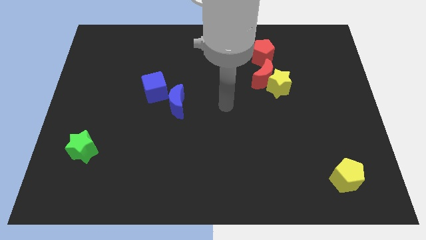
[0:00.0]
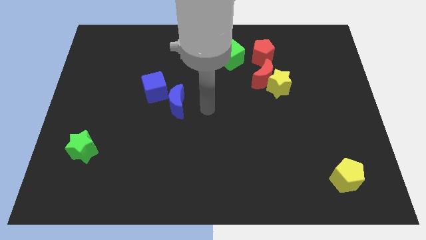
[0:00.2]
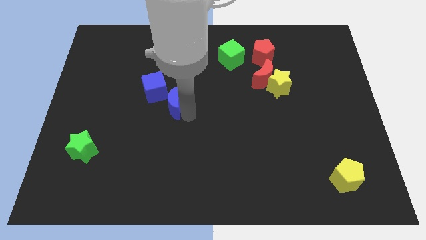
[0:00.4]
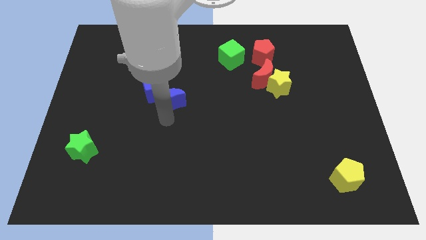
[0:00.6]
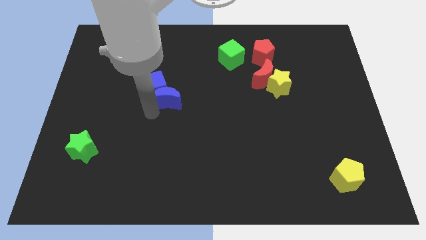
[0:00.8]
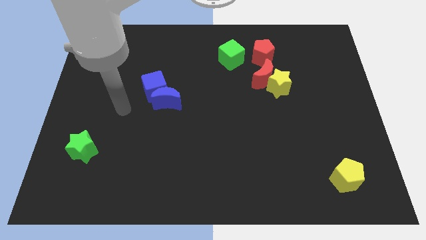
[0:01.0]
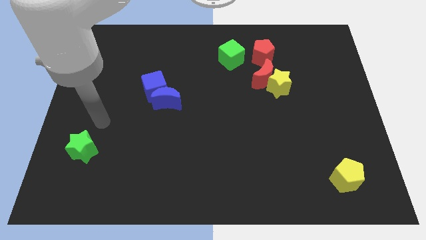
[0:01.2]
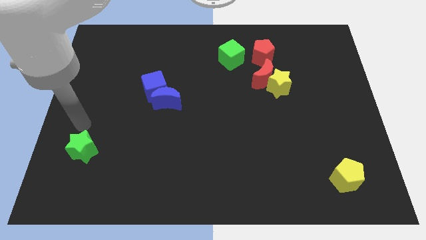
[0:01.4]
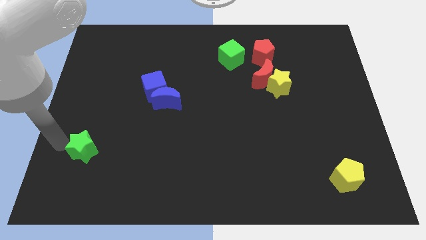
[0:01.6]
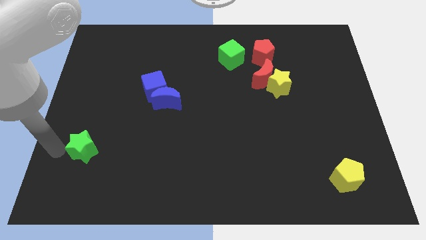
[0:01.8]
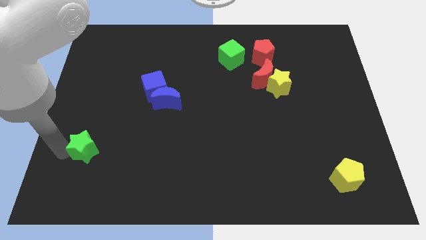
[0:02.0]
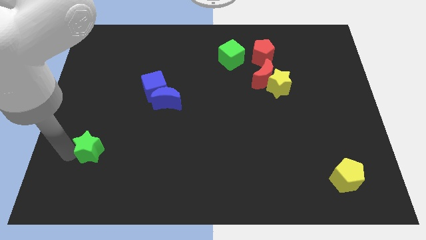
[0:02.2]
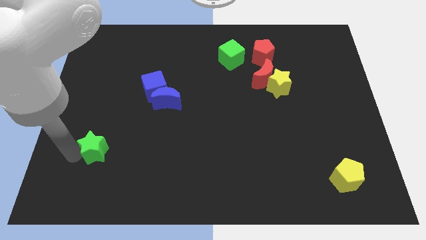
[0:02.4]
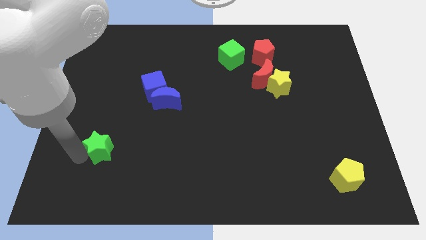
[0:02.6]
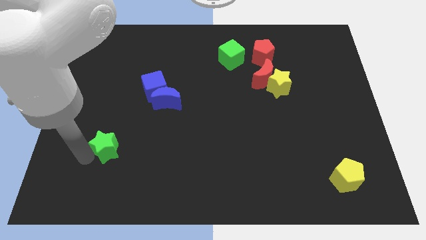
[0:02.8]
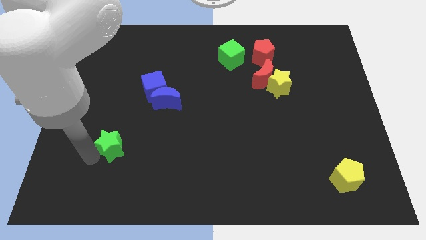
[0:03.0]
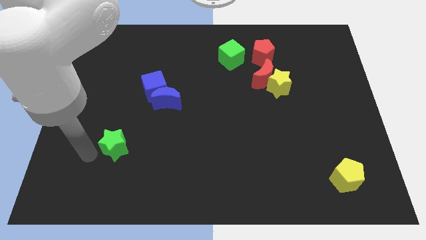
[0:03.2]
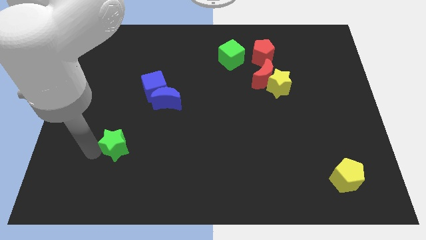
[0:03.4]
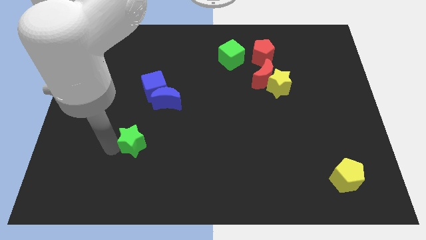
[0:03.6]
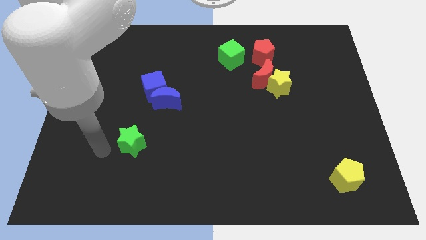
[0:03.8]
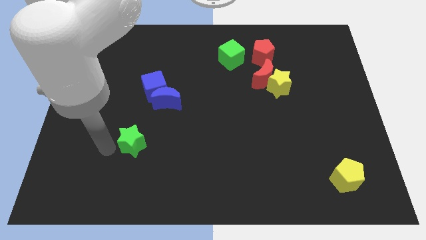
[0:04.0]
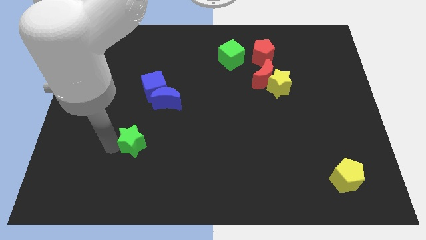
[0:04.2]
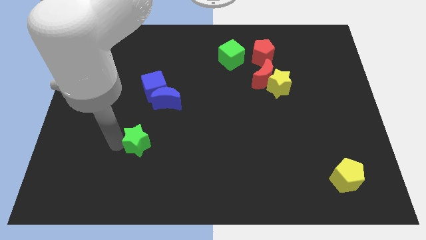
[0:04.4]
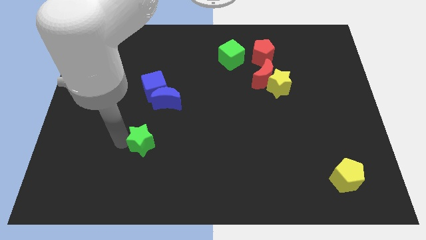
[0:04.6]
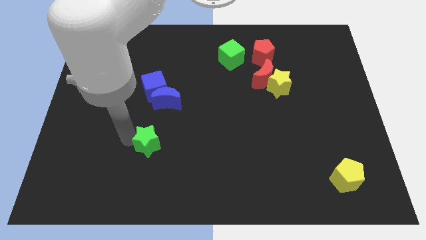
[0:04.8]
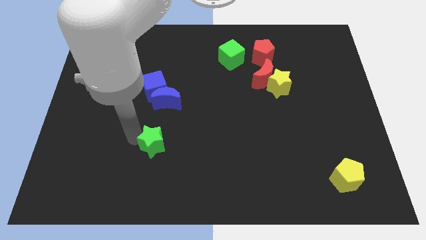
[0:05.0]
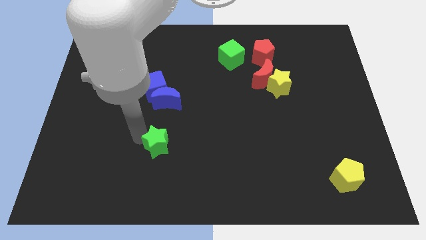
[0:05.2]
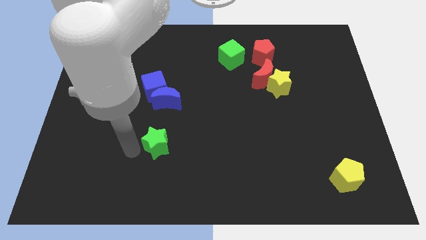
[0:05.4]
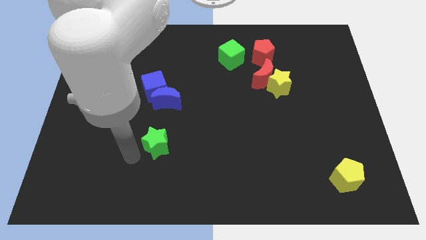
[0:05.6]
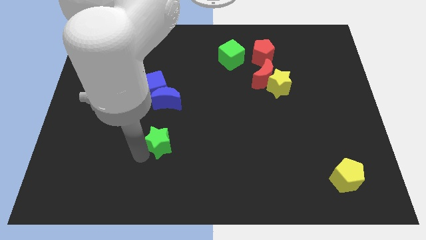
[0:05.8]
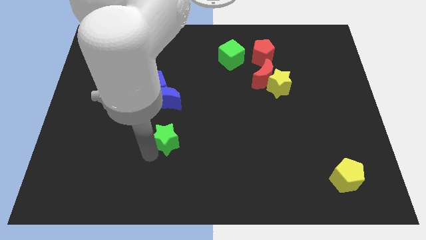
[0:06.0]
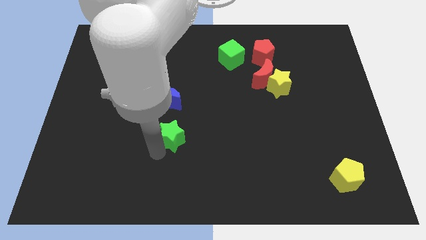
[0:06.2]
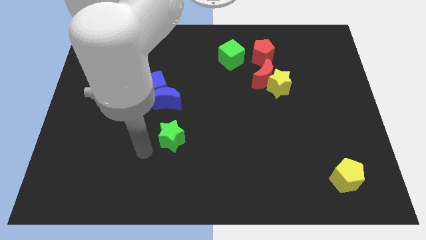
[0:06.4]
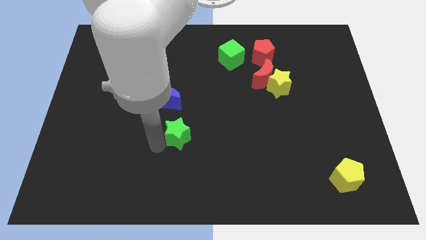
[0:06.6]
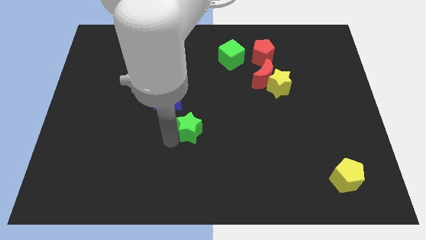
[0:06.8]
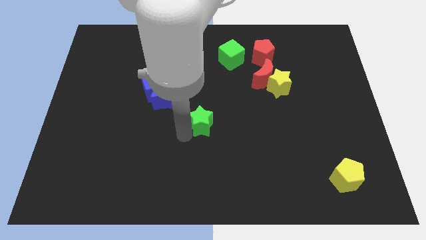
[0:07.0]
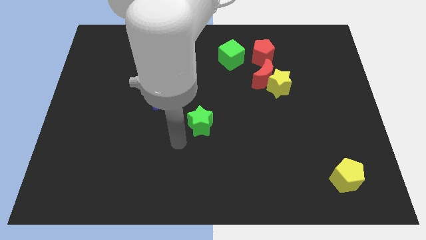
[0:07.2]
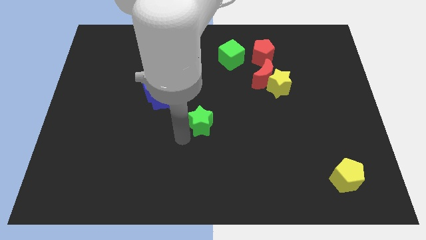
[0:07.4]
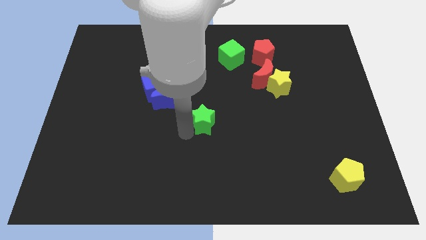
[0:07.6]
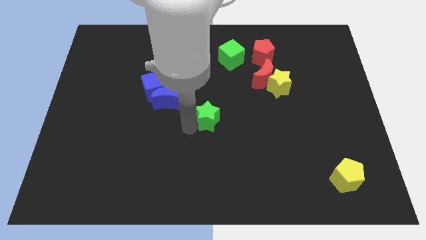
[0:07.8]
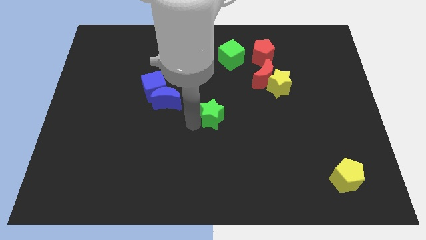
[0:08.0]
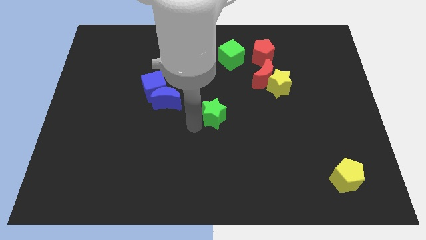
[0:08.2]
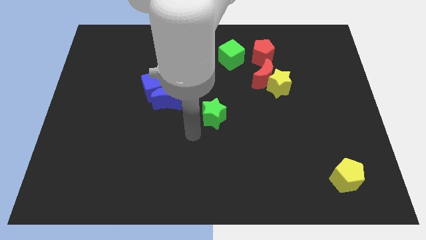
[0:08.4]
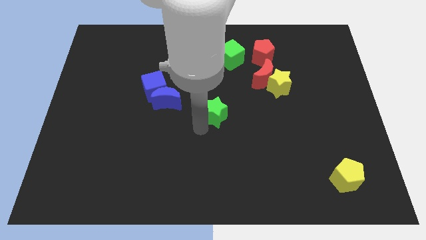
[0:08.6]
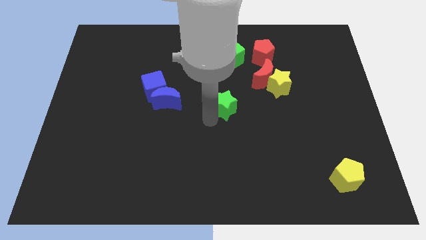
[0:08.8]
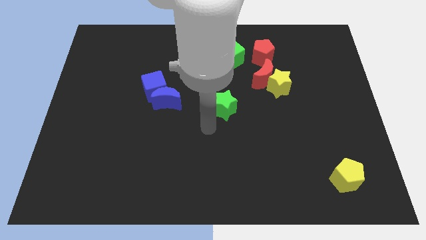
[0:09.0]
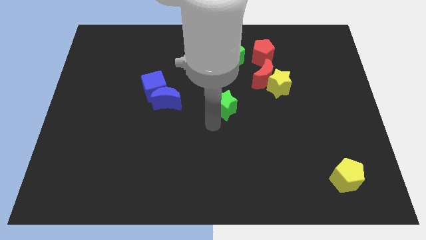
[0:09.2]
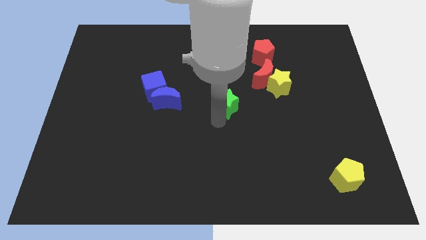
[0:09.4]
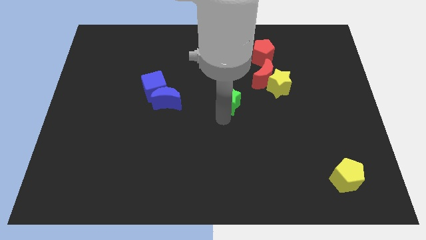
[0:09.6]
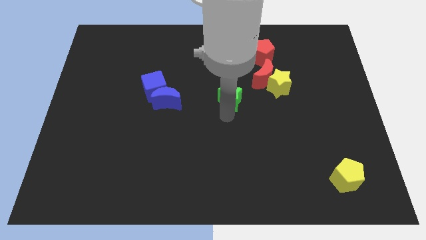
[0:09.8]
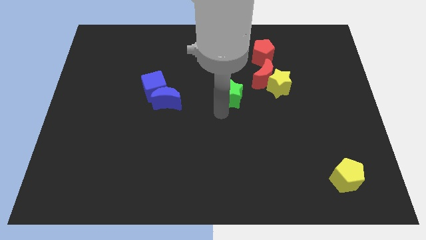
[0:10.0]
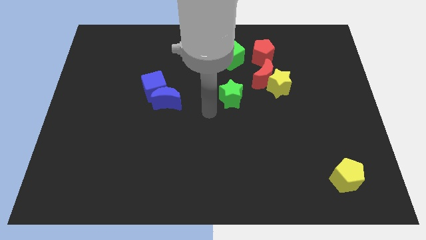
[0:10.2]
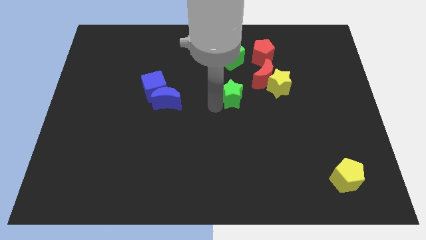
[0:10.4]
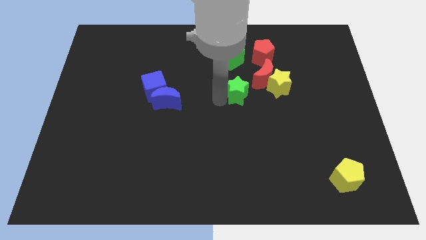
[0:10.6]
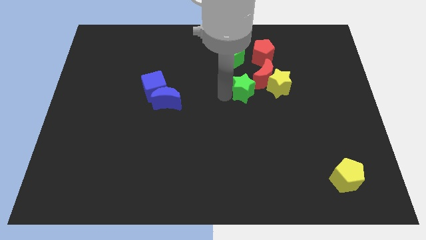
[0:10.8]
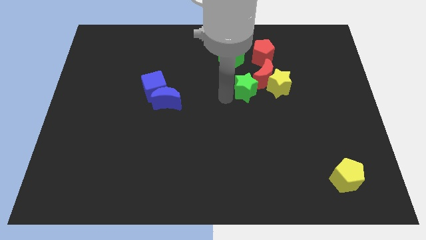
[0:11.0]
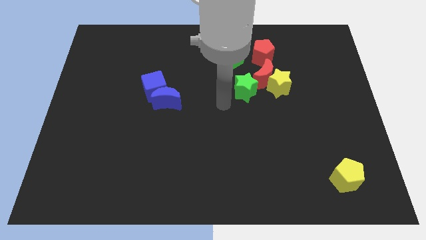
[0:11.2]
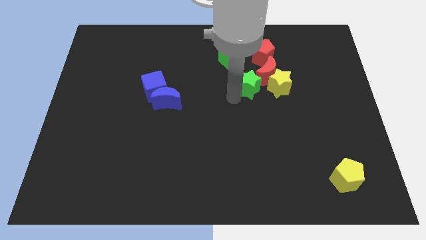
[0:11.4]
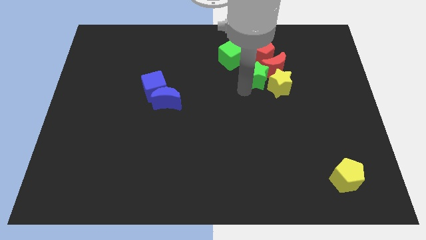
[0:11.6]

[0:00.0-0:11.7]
move the green star to the red moon

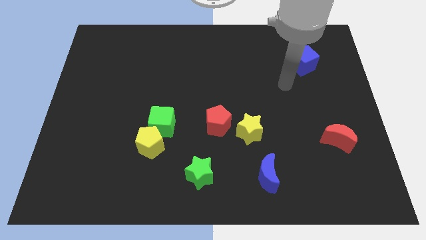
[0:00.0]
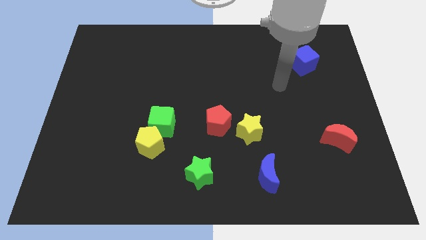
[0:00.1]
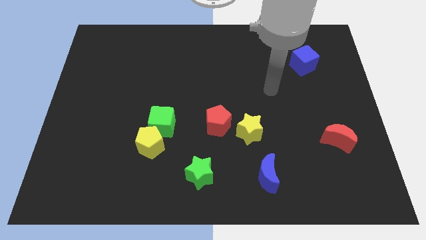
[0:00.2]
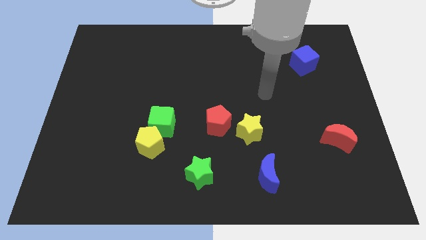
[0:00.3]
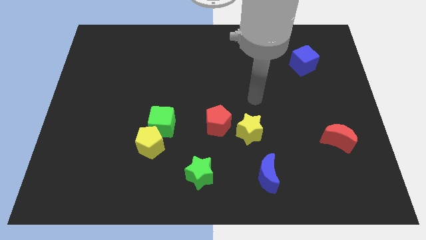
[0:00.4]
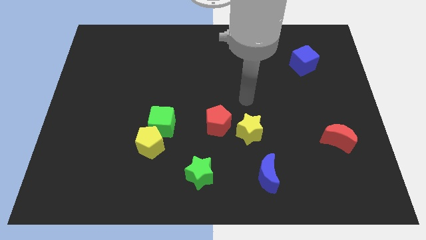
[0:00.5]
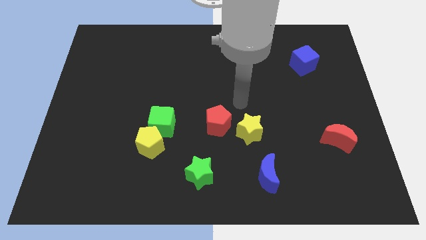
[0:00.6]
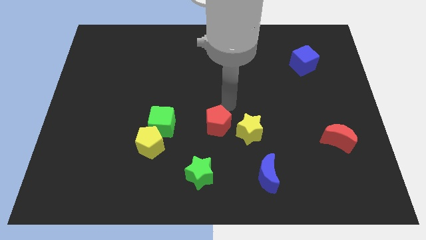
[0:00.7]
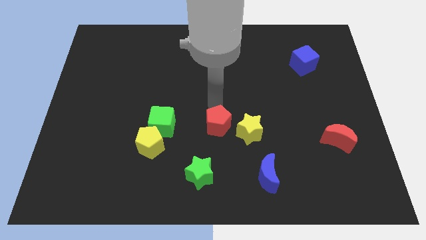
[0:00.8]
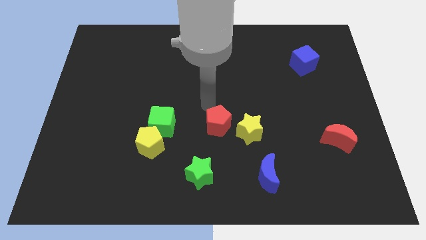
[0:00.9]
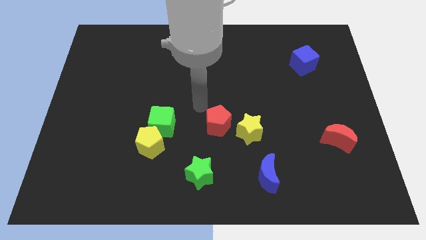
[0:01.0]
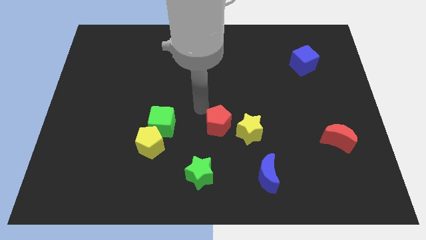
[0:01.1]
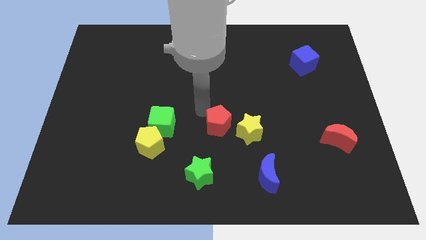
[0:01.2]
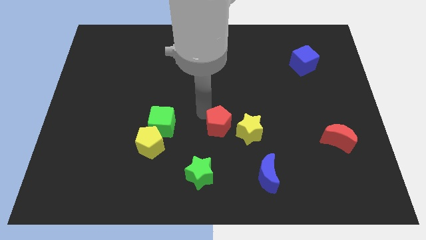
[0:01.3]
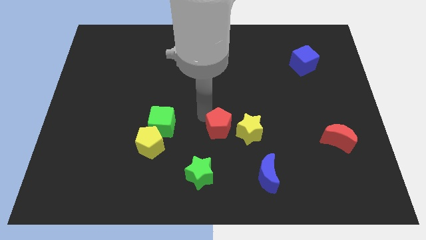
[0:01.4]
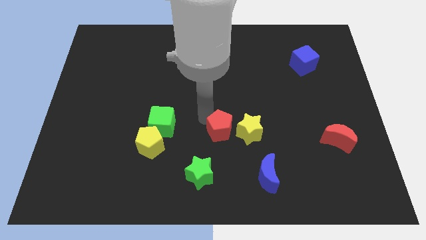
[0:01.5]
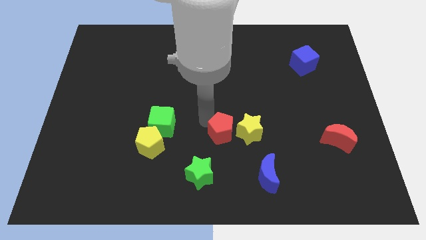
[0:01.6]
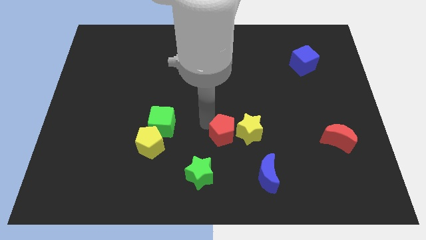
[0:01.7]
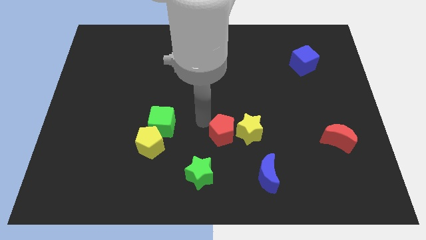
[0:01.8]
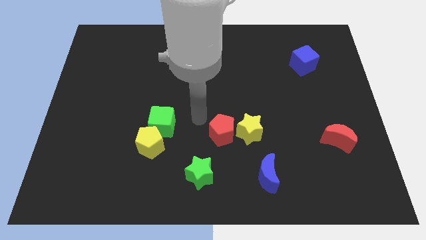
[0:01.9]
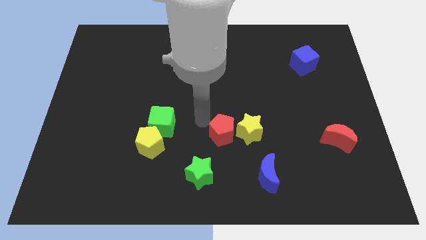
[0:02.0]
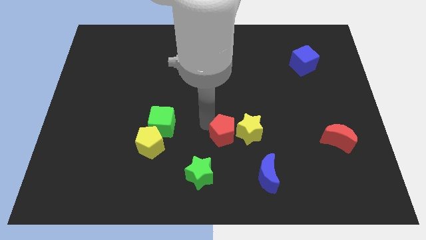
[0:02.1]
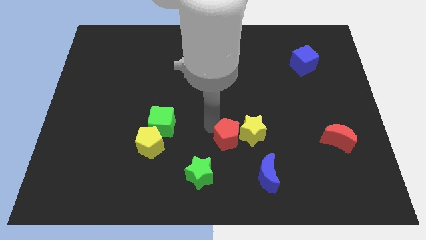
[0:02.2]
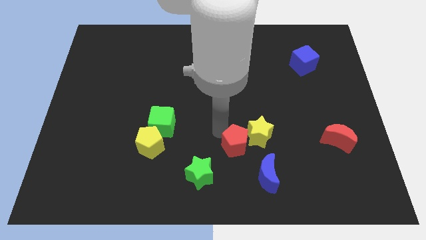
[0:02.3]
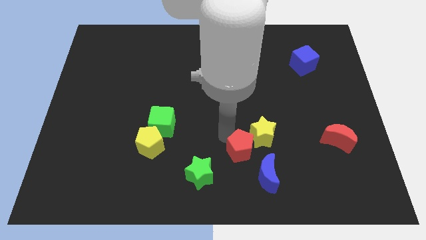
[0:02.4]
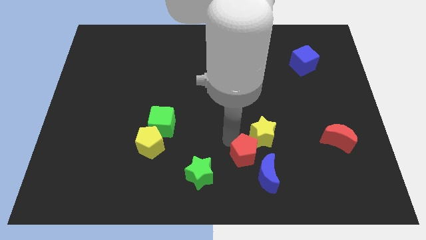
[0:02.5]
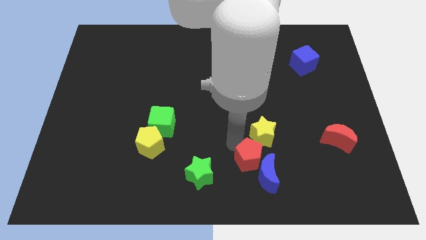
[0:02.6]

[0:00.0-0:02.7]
push the red pentagon towards the blue moon
